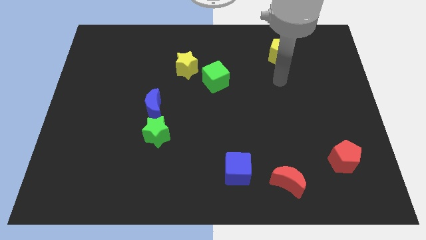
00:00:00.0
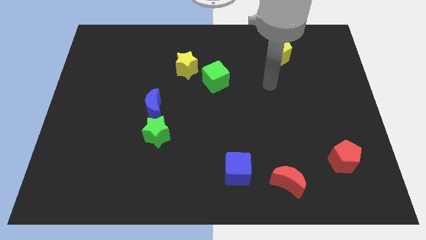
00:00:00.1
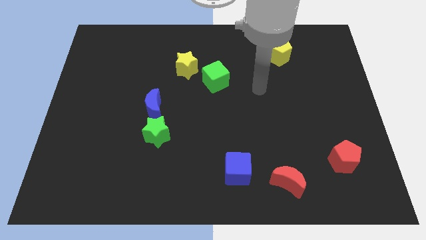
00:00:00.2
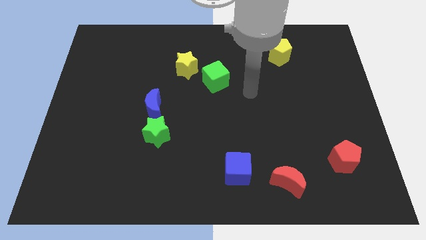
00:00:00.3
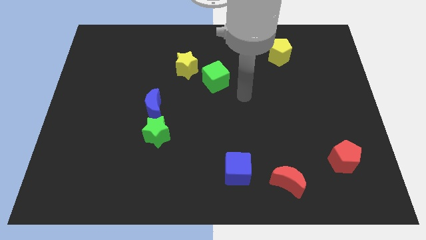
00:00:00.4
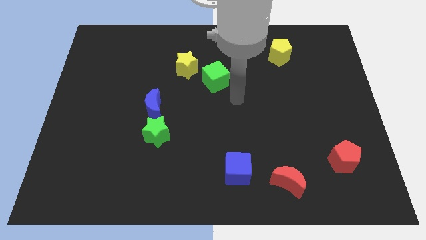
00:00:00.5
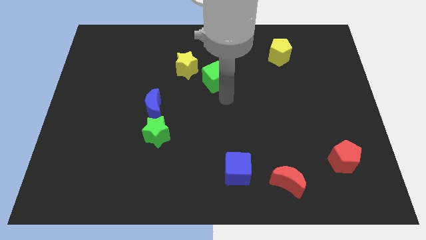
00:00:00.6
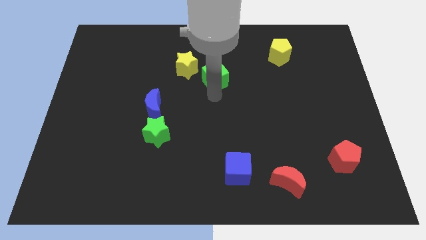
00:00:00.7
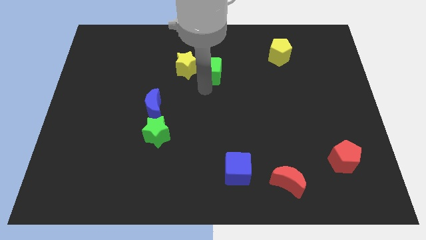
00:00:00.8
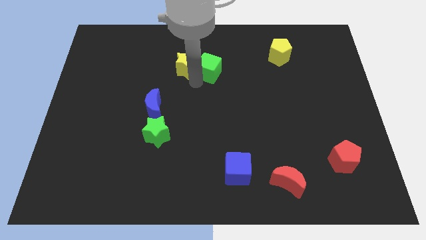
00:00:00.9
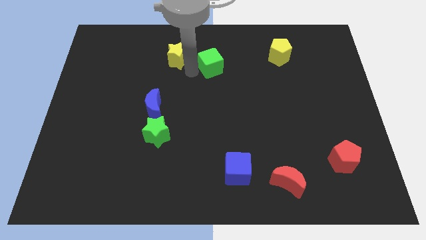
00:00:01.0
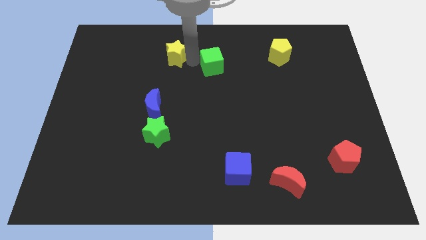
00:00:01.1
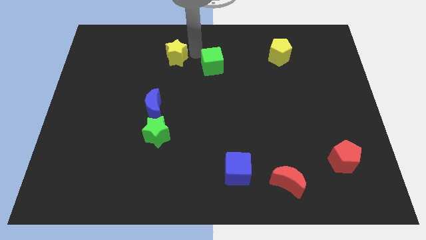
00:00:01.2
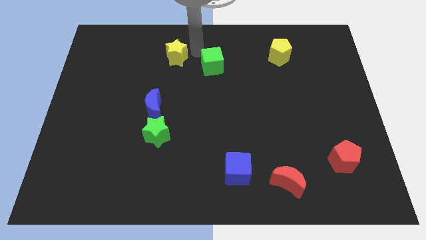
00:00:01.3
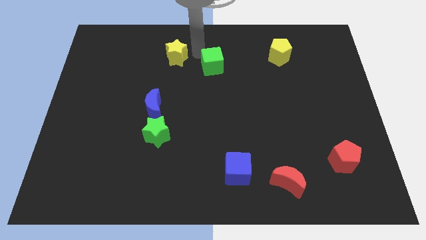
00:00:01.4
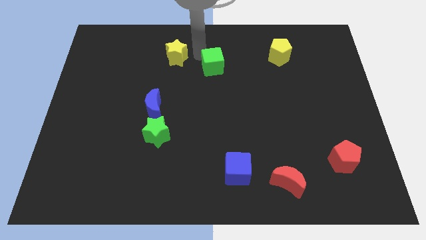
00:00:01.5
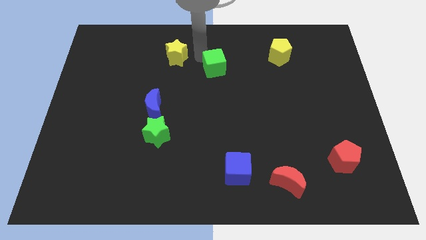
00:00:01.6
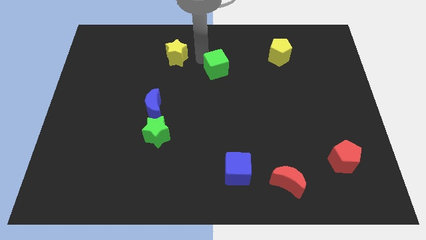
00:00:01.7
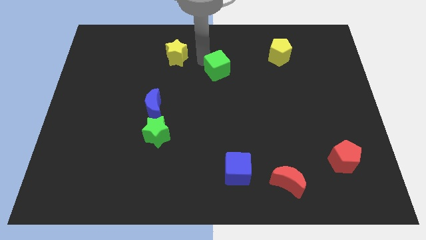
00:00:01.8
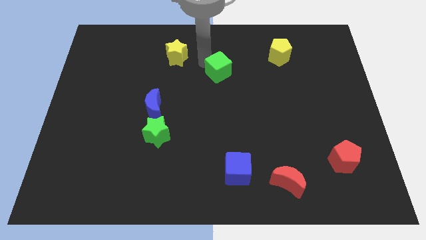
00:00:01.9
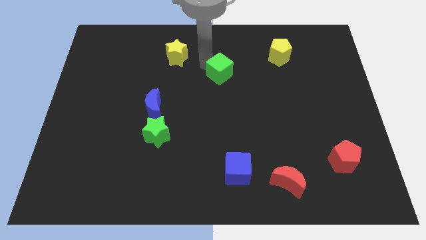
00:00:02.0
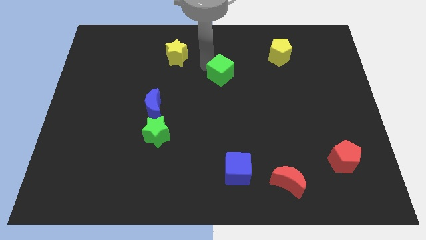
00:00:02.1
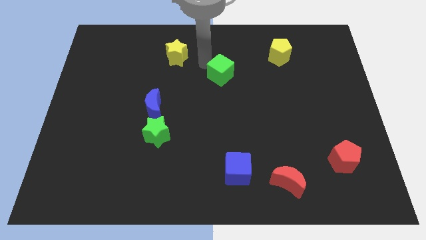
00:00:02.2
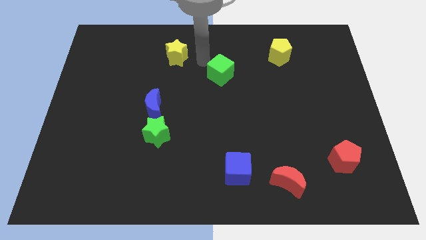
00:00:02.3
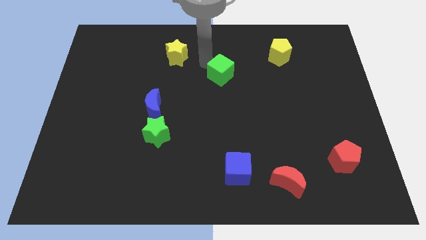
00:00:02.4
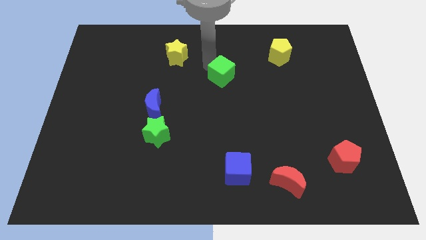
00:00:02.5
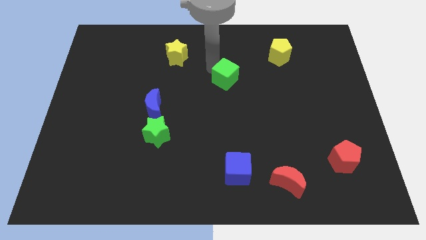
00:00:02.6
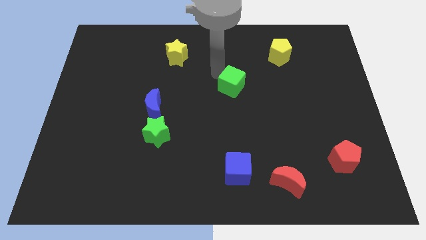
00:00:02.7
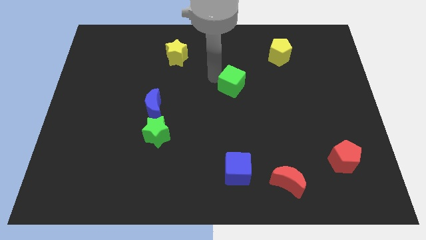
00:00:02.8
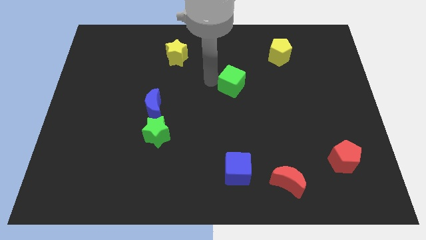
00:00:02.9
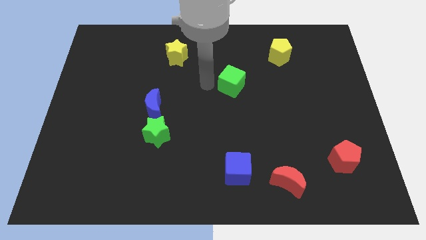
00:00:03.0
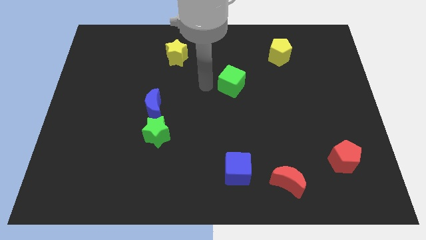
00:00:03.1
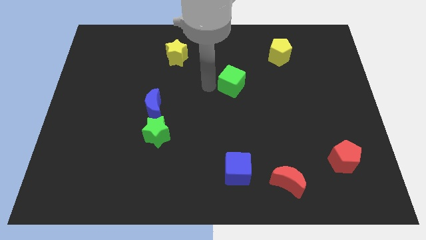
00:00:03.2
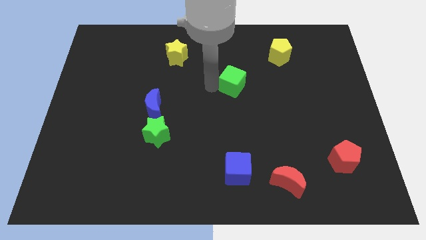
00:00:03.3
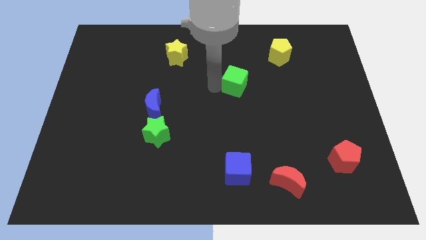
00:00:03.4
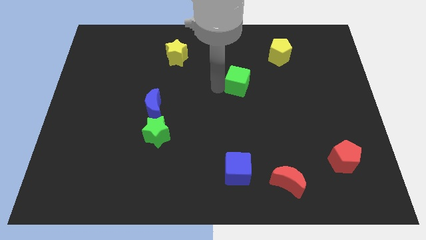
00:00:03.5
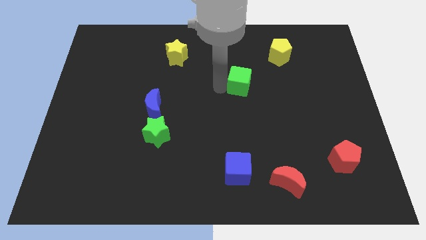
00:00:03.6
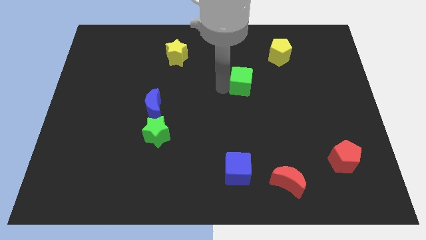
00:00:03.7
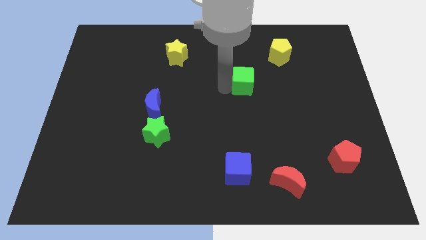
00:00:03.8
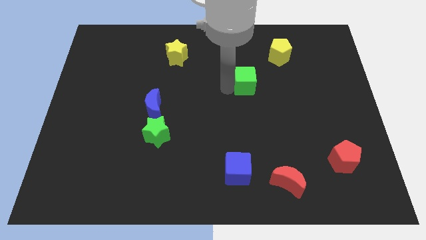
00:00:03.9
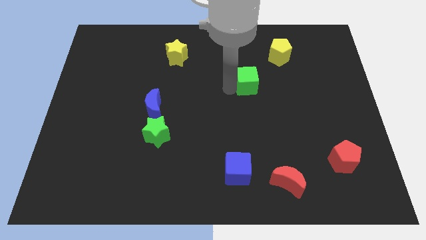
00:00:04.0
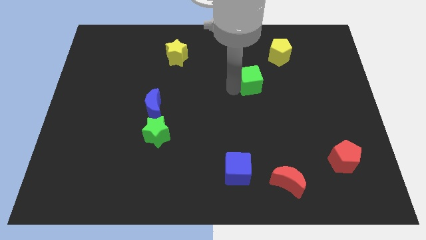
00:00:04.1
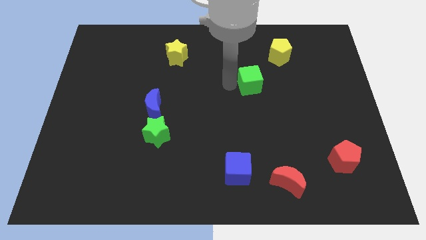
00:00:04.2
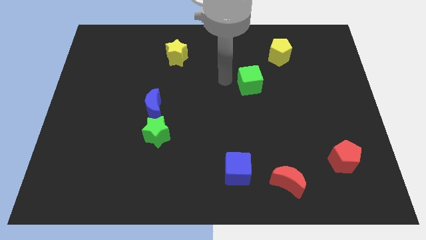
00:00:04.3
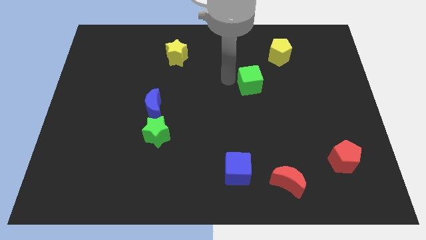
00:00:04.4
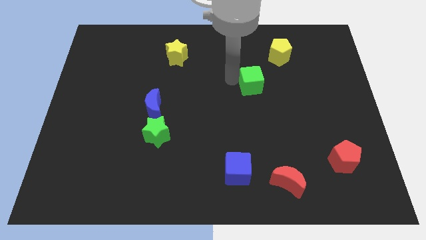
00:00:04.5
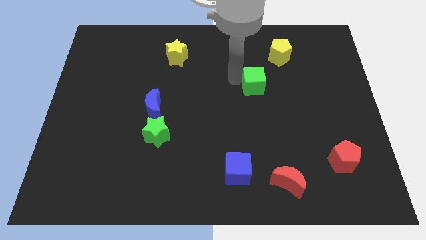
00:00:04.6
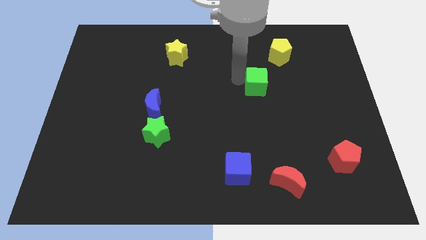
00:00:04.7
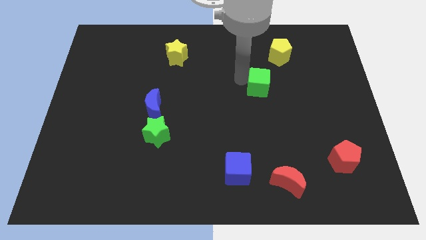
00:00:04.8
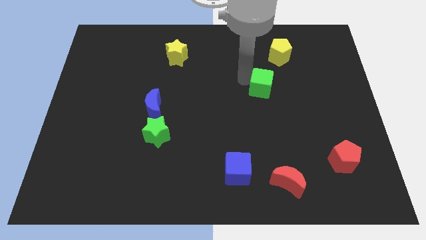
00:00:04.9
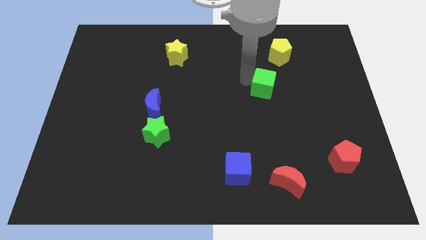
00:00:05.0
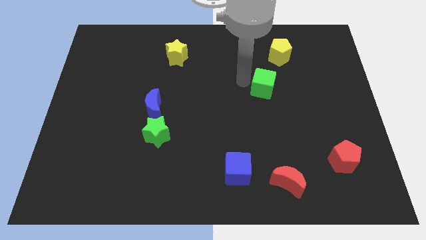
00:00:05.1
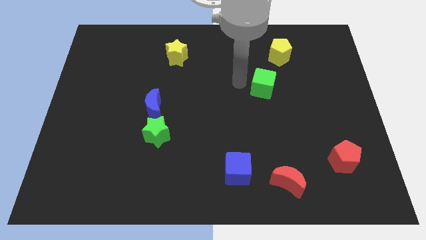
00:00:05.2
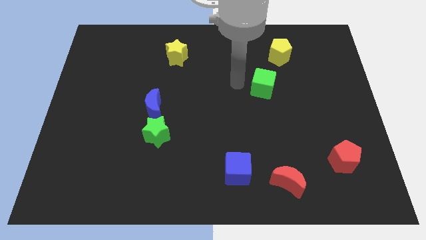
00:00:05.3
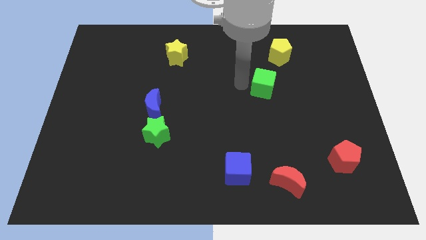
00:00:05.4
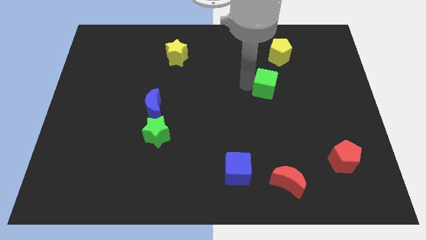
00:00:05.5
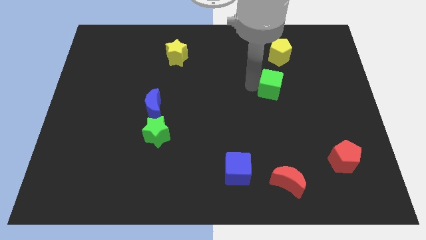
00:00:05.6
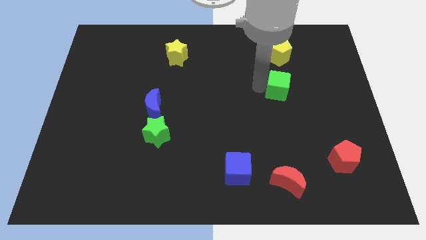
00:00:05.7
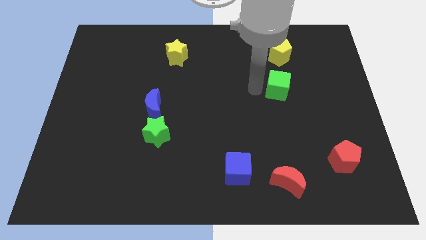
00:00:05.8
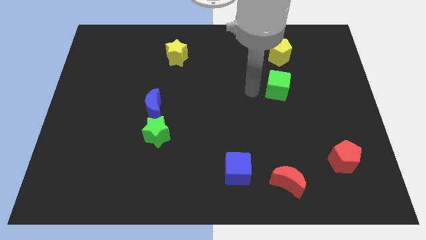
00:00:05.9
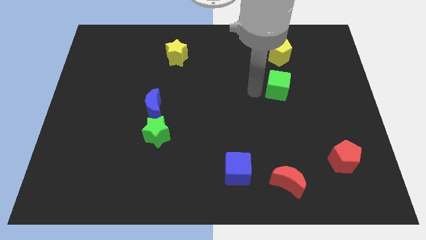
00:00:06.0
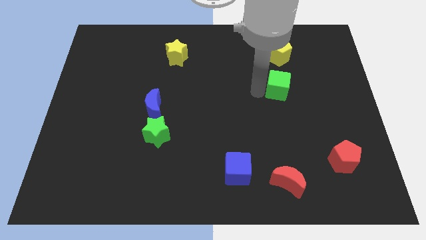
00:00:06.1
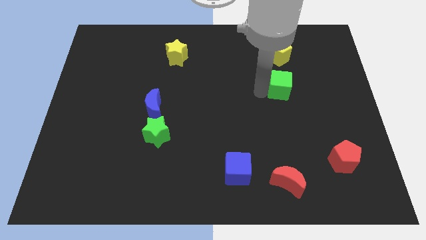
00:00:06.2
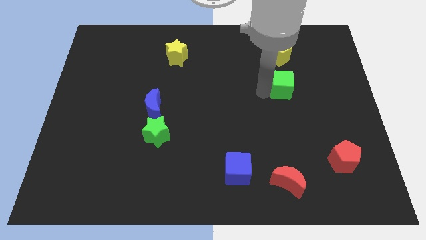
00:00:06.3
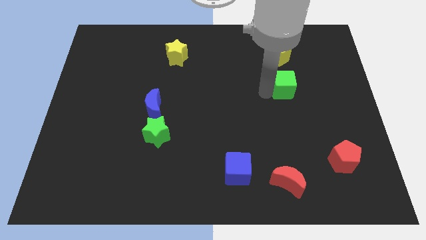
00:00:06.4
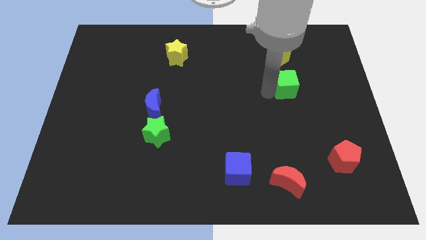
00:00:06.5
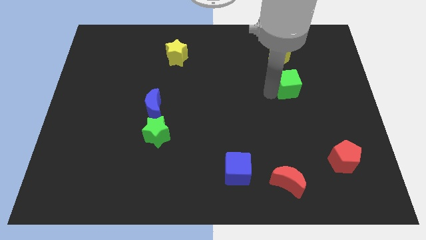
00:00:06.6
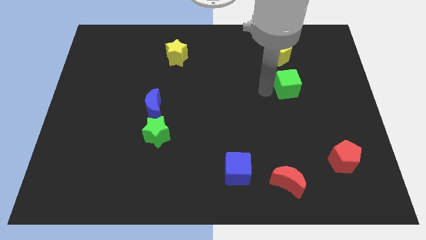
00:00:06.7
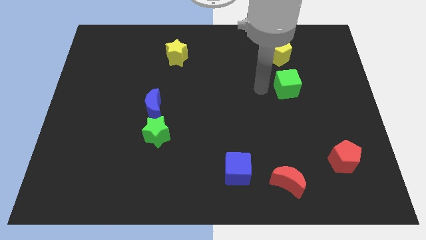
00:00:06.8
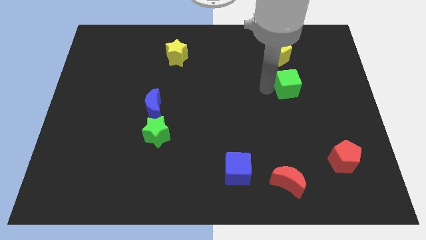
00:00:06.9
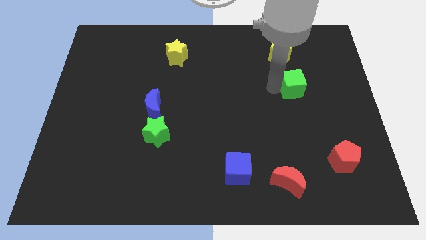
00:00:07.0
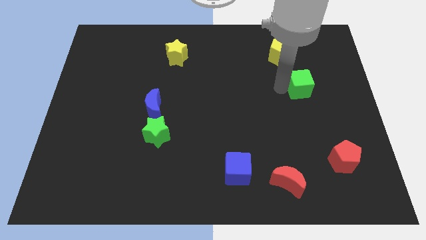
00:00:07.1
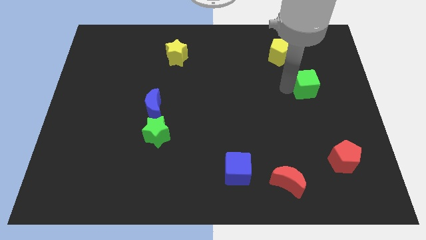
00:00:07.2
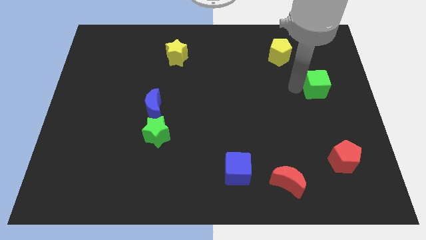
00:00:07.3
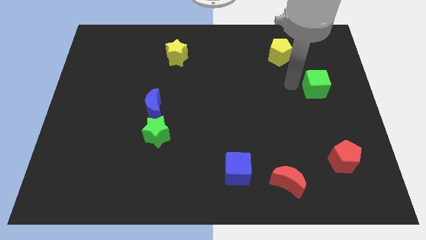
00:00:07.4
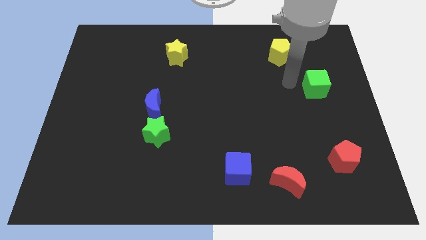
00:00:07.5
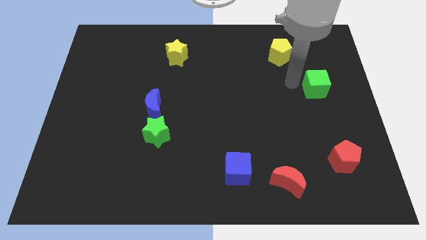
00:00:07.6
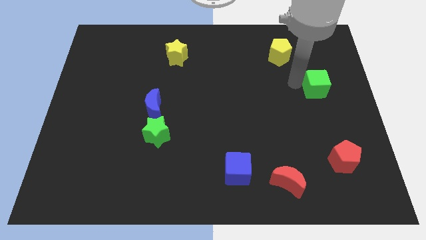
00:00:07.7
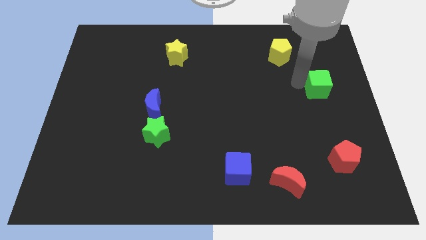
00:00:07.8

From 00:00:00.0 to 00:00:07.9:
push the green cube to the right side
